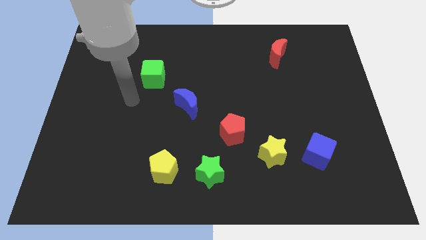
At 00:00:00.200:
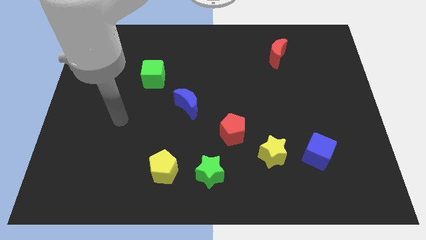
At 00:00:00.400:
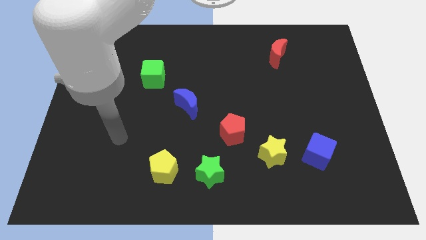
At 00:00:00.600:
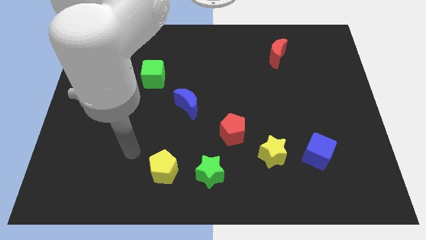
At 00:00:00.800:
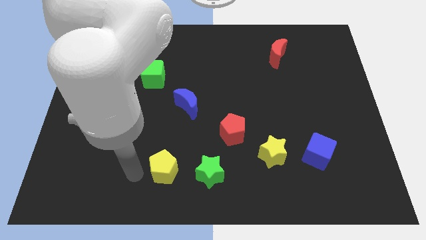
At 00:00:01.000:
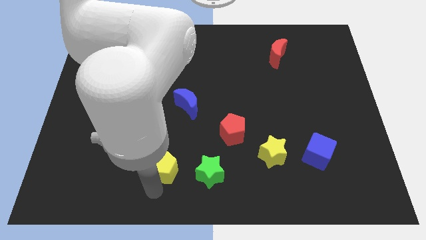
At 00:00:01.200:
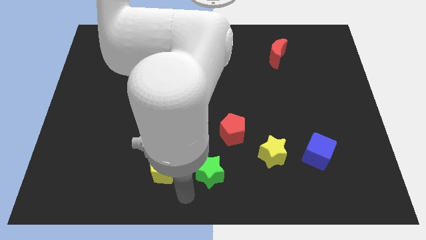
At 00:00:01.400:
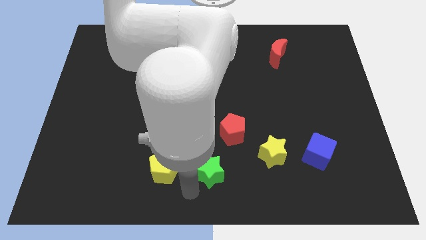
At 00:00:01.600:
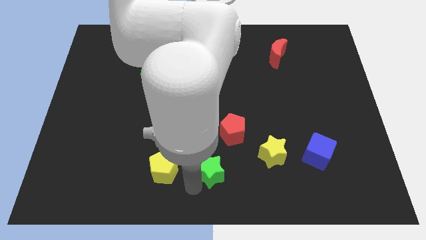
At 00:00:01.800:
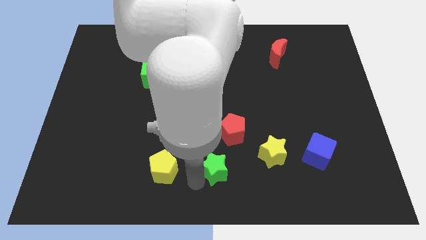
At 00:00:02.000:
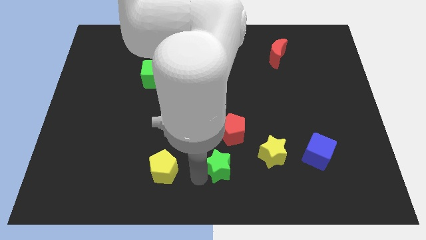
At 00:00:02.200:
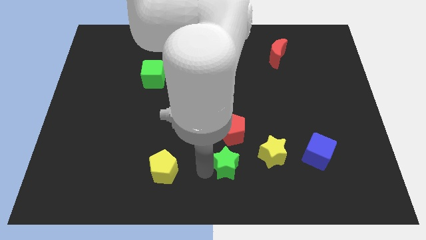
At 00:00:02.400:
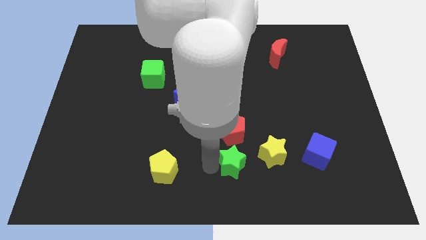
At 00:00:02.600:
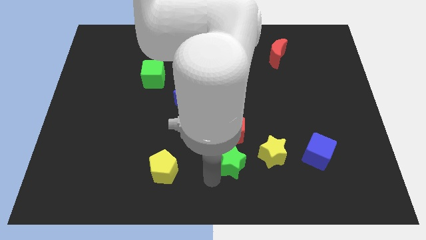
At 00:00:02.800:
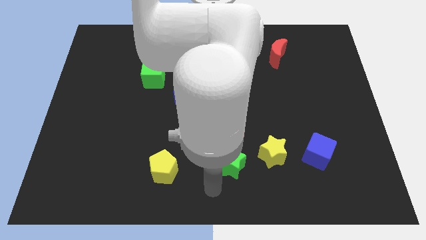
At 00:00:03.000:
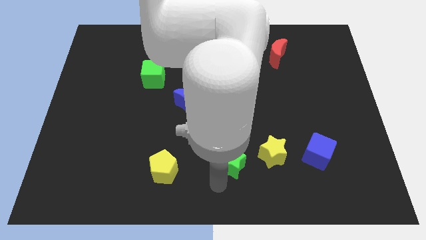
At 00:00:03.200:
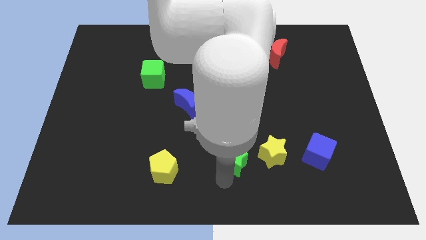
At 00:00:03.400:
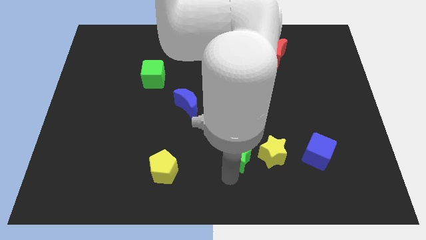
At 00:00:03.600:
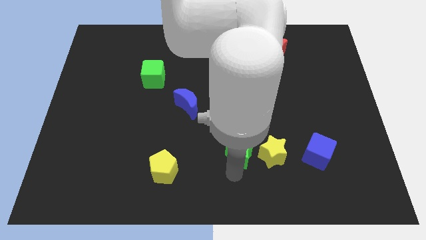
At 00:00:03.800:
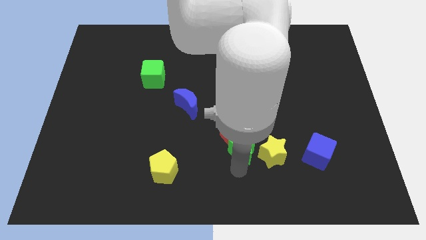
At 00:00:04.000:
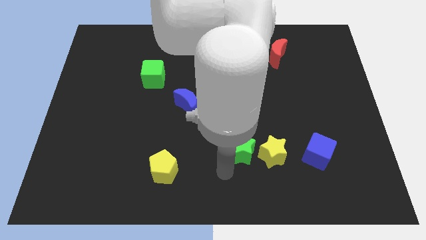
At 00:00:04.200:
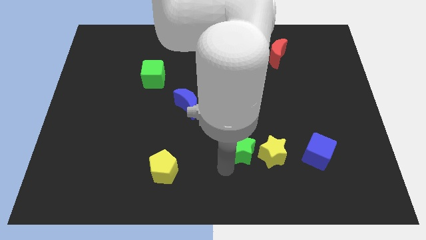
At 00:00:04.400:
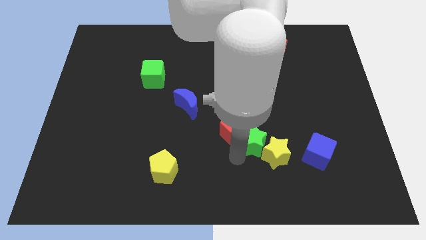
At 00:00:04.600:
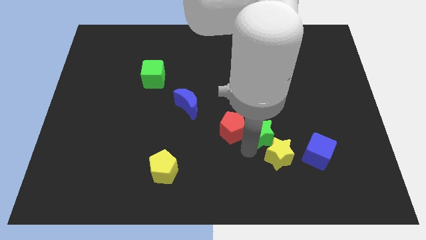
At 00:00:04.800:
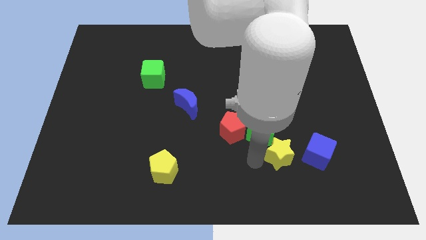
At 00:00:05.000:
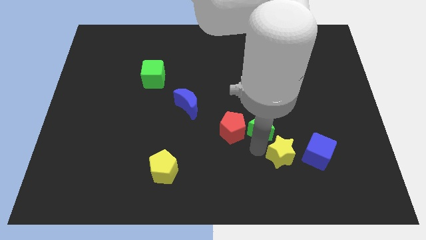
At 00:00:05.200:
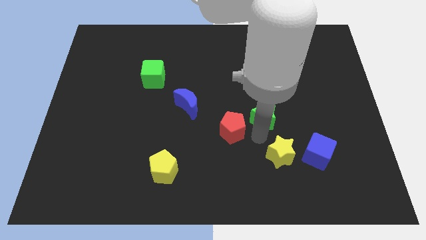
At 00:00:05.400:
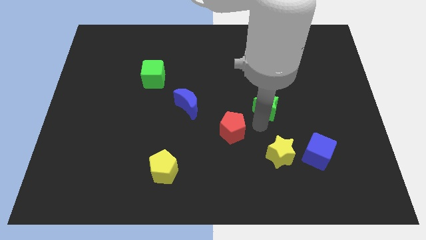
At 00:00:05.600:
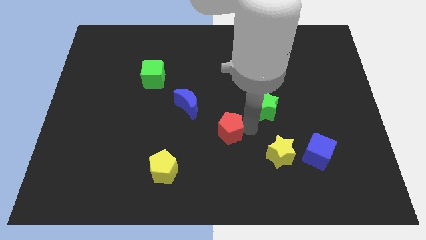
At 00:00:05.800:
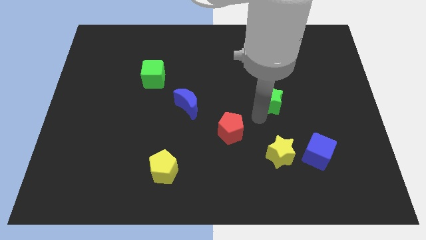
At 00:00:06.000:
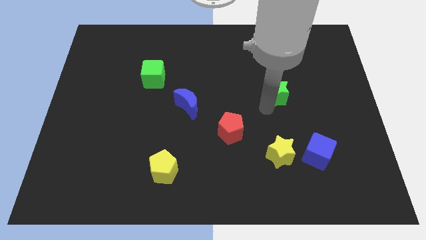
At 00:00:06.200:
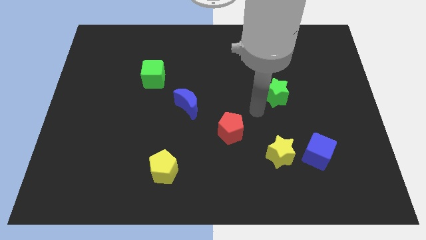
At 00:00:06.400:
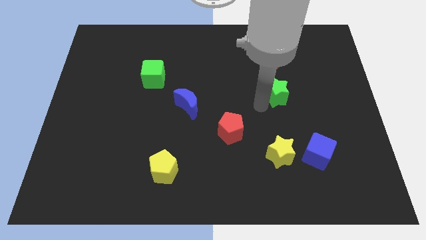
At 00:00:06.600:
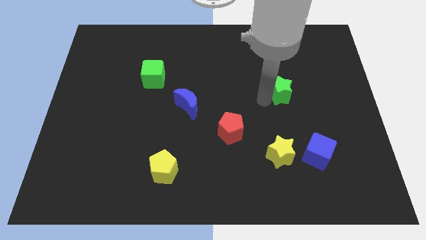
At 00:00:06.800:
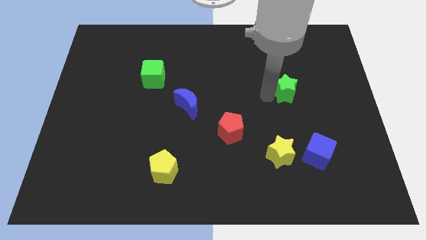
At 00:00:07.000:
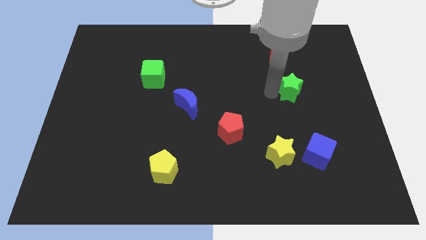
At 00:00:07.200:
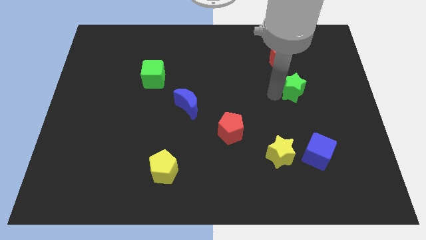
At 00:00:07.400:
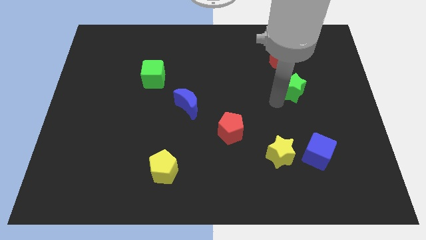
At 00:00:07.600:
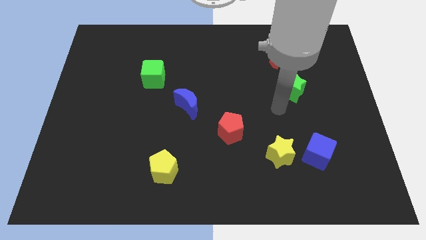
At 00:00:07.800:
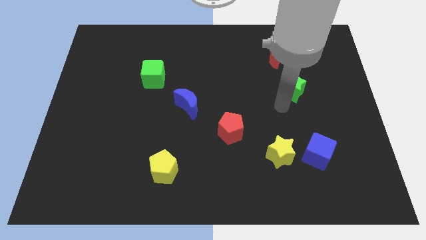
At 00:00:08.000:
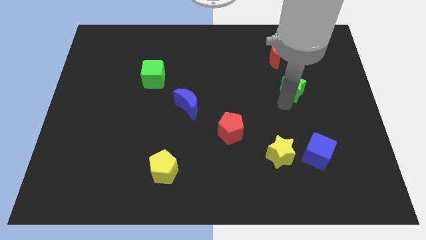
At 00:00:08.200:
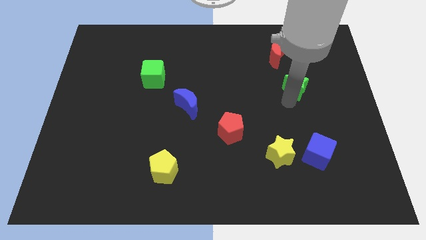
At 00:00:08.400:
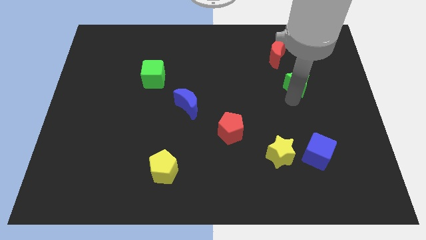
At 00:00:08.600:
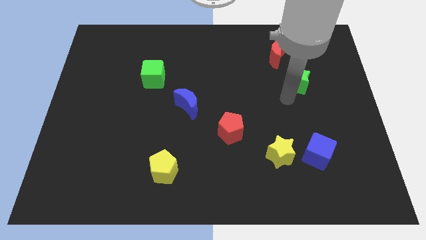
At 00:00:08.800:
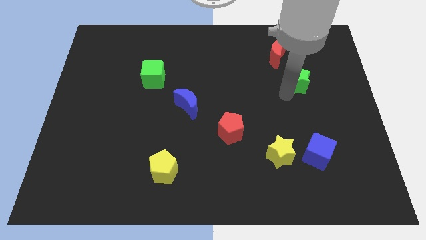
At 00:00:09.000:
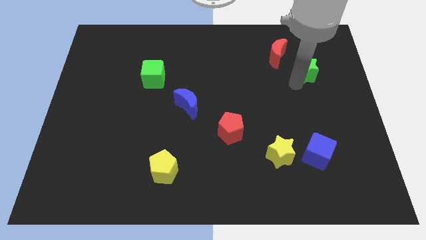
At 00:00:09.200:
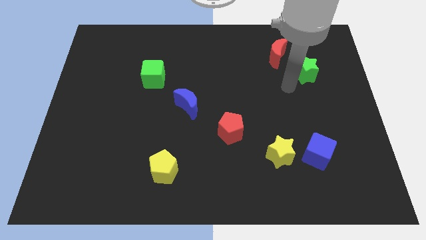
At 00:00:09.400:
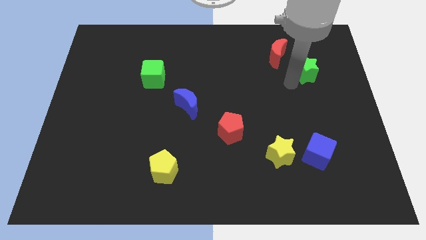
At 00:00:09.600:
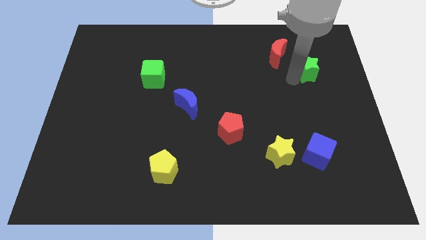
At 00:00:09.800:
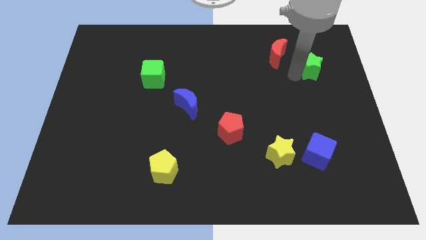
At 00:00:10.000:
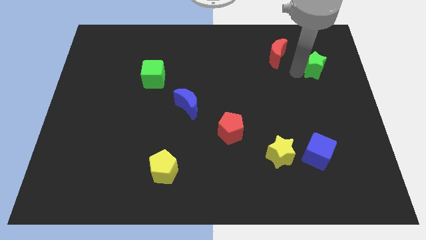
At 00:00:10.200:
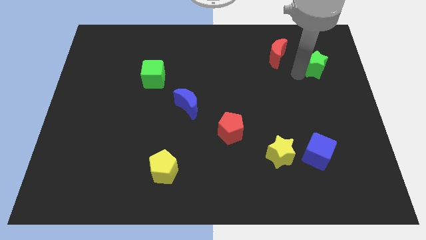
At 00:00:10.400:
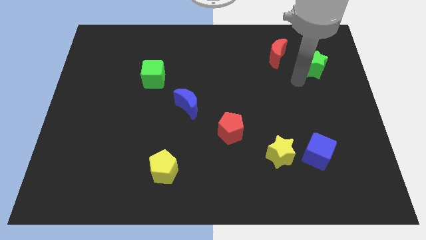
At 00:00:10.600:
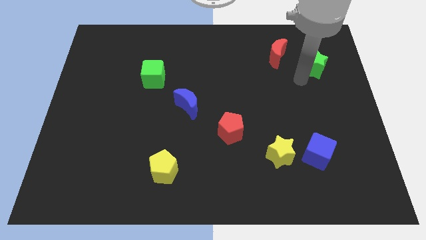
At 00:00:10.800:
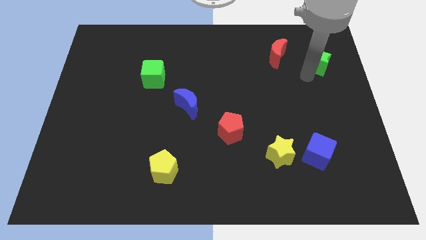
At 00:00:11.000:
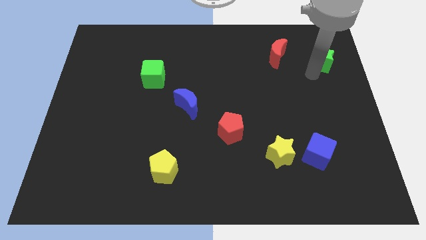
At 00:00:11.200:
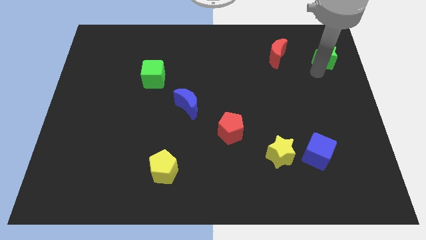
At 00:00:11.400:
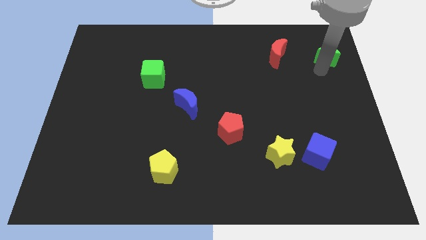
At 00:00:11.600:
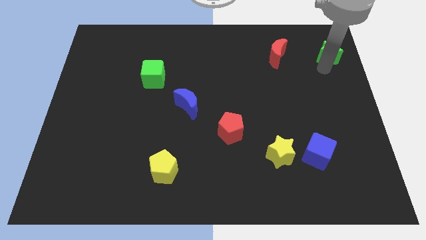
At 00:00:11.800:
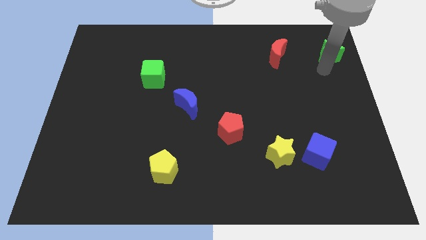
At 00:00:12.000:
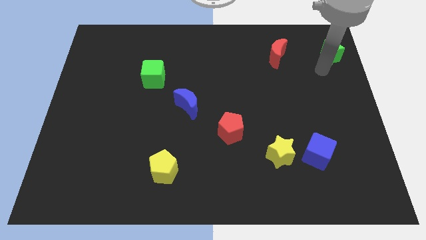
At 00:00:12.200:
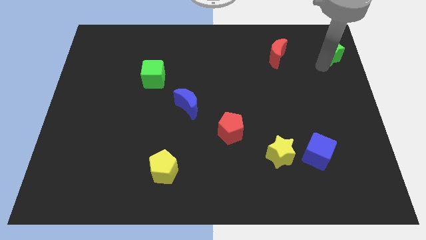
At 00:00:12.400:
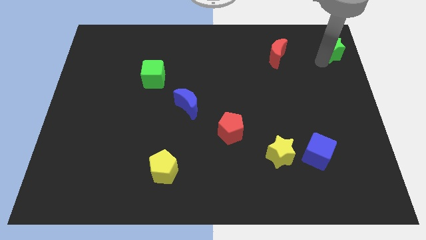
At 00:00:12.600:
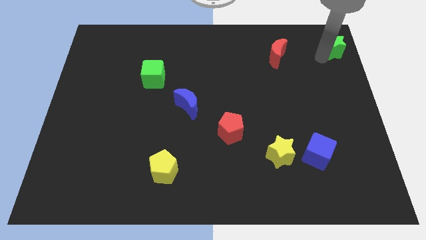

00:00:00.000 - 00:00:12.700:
put the green star to the upper right corner
